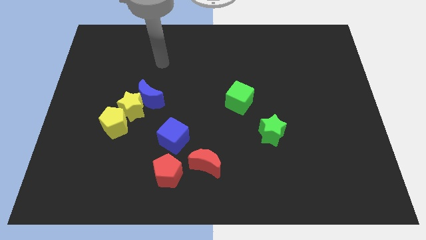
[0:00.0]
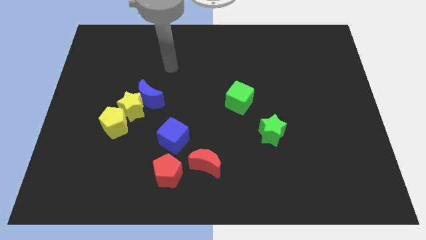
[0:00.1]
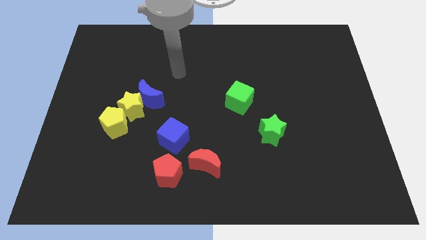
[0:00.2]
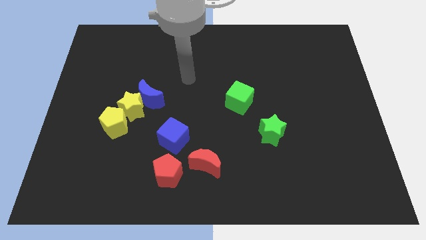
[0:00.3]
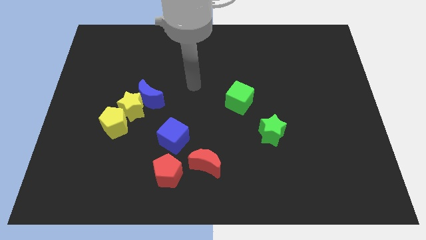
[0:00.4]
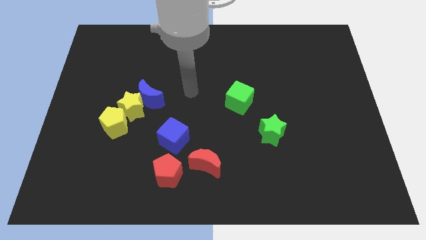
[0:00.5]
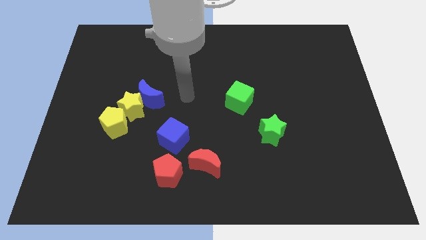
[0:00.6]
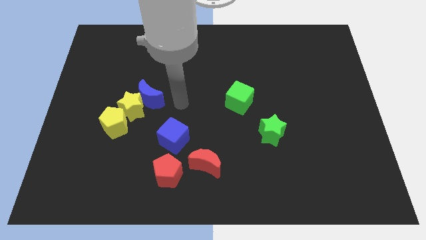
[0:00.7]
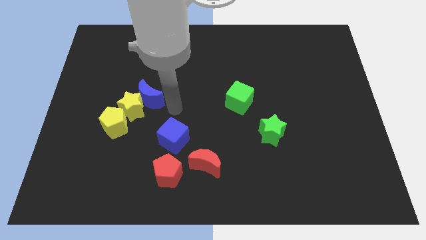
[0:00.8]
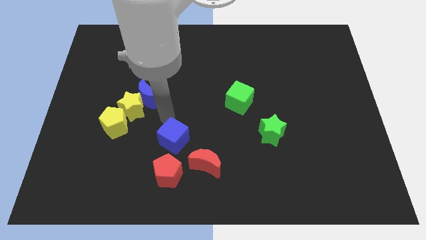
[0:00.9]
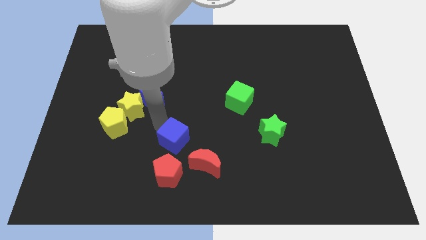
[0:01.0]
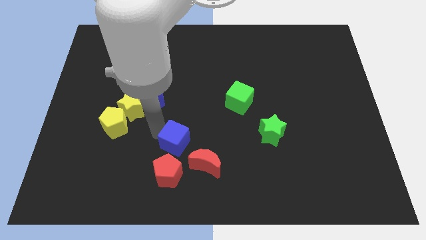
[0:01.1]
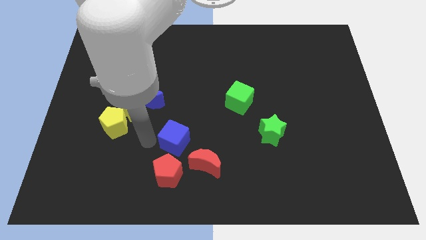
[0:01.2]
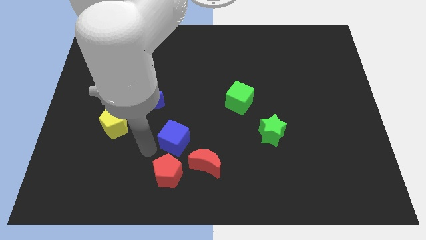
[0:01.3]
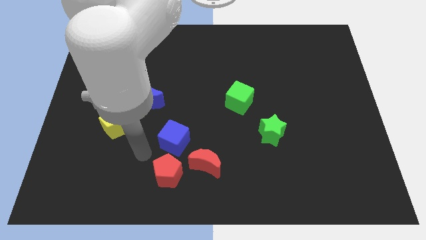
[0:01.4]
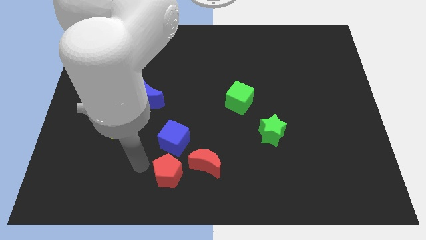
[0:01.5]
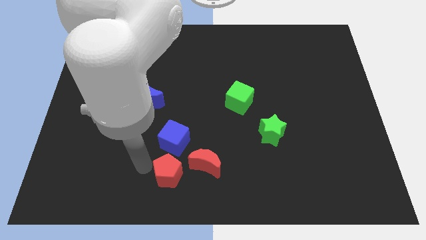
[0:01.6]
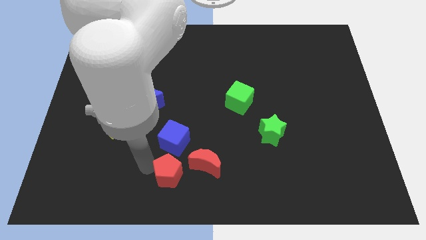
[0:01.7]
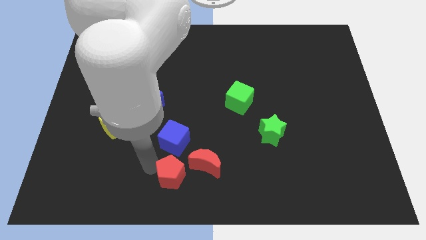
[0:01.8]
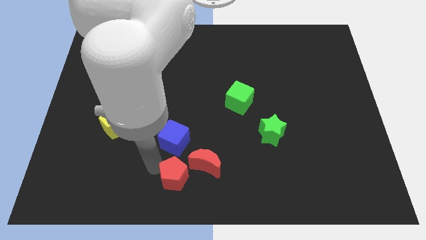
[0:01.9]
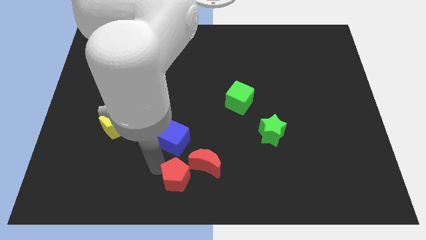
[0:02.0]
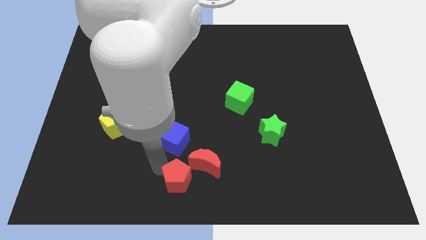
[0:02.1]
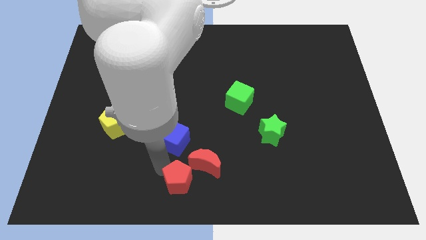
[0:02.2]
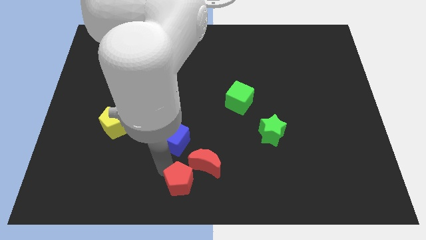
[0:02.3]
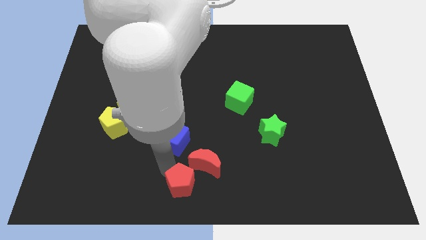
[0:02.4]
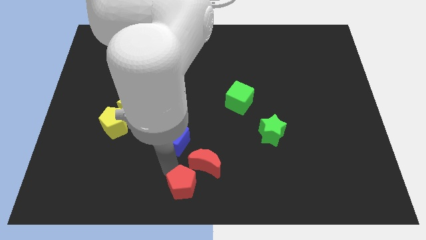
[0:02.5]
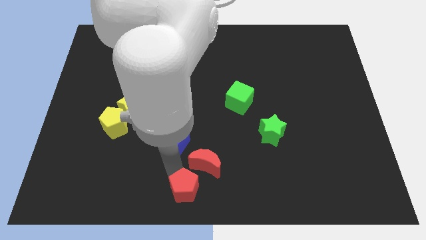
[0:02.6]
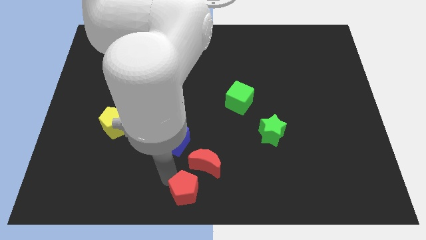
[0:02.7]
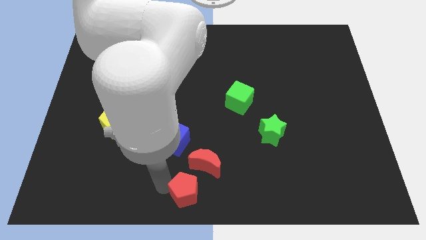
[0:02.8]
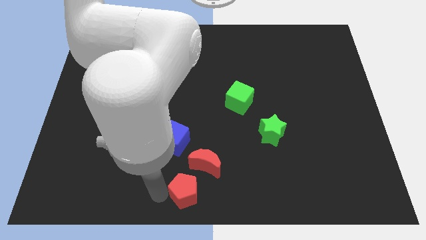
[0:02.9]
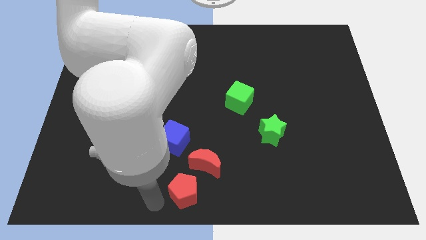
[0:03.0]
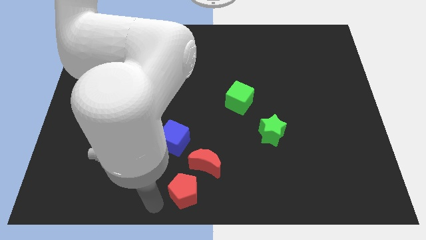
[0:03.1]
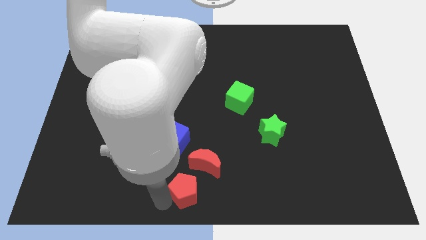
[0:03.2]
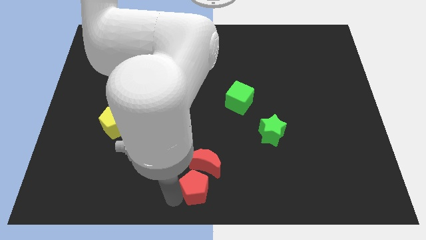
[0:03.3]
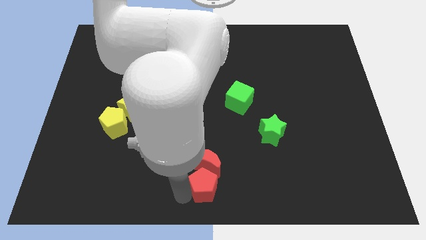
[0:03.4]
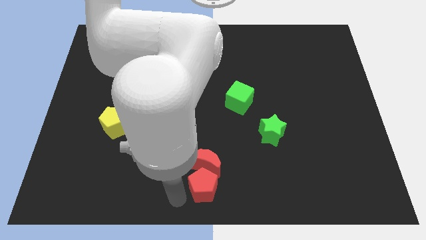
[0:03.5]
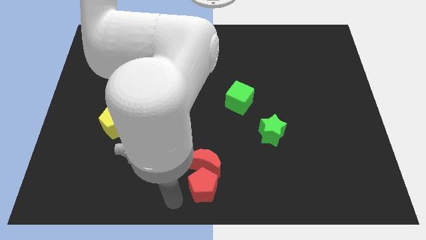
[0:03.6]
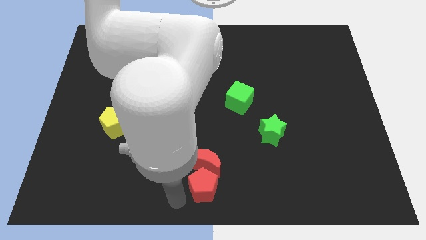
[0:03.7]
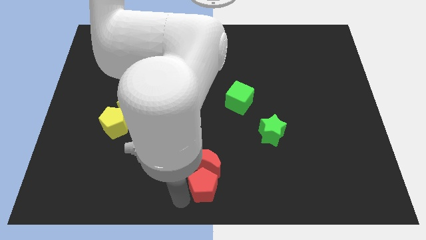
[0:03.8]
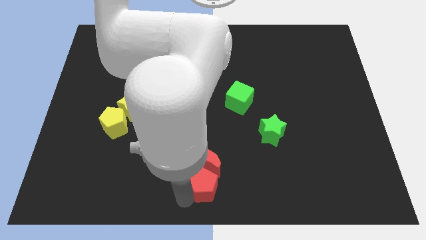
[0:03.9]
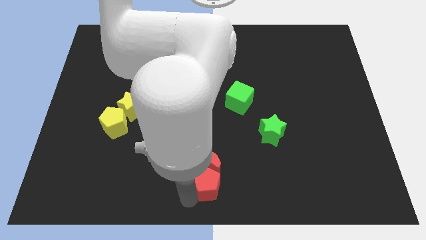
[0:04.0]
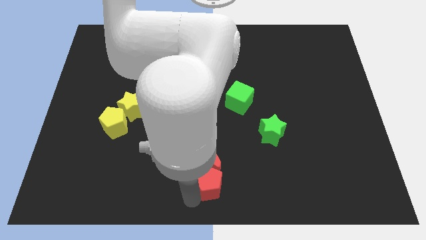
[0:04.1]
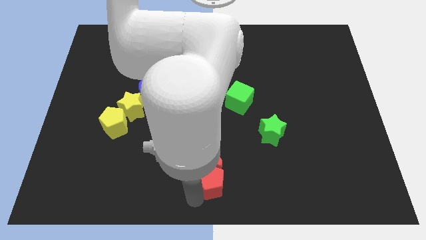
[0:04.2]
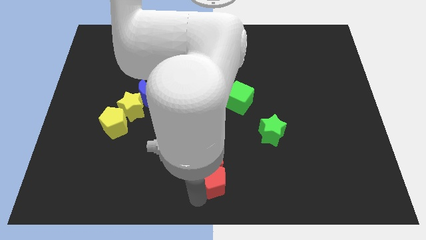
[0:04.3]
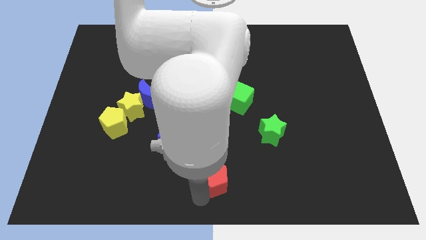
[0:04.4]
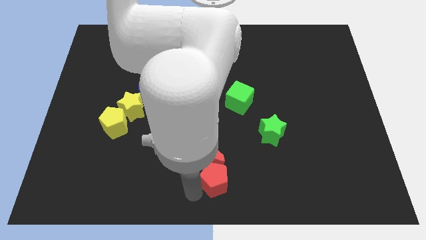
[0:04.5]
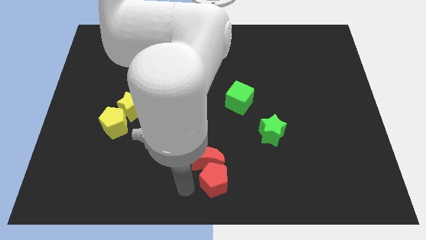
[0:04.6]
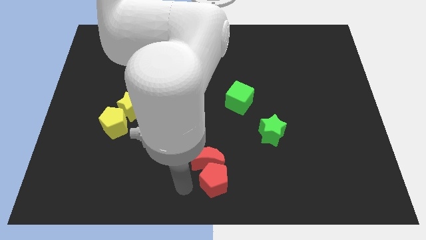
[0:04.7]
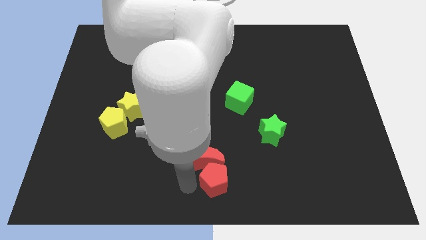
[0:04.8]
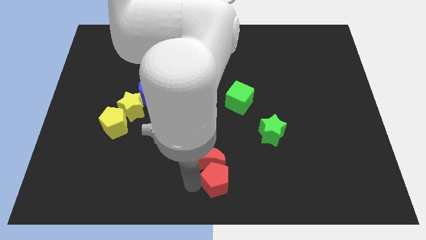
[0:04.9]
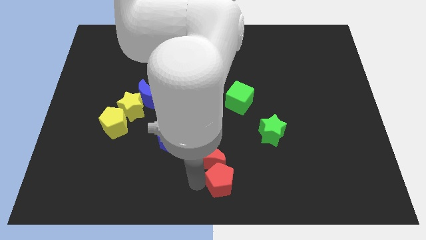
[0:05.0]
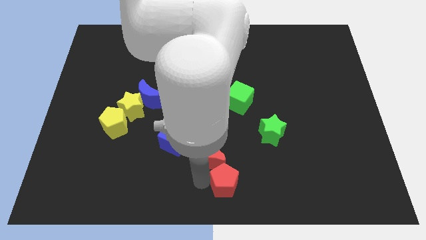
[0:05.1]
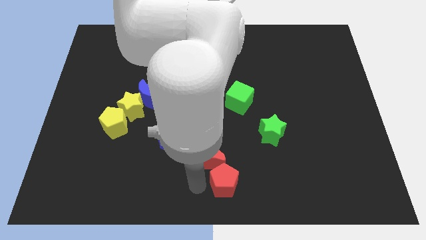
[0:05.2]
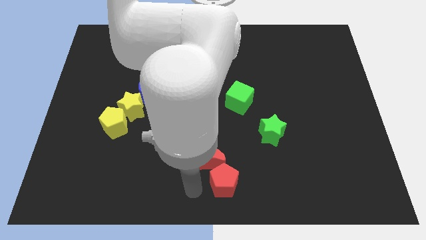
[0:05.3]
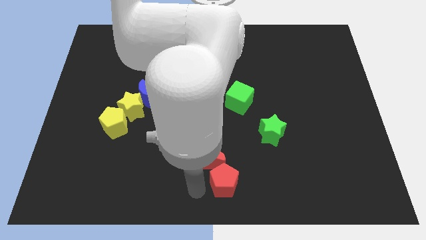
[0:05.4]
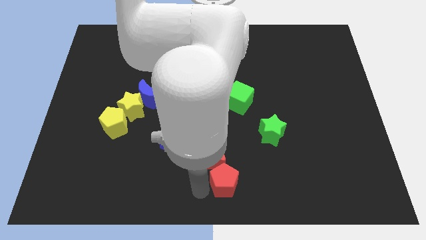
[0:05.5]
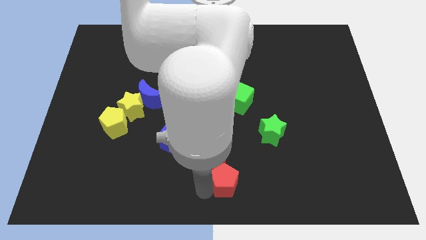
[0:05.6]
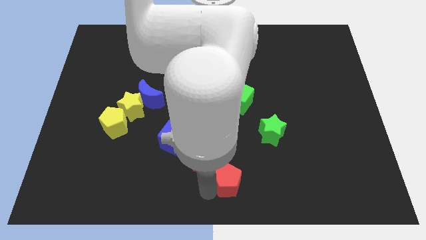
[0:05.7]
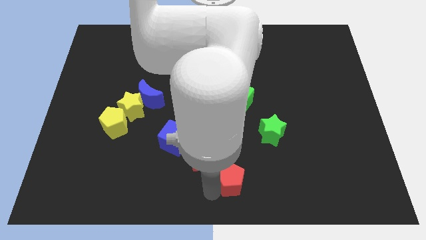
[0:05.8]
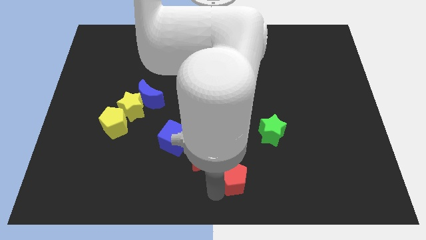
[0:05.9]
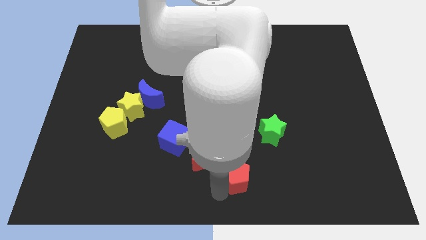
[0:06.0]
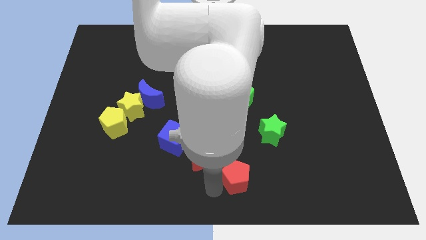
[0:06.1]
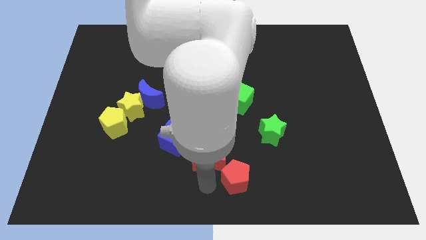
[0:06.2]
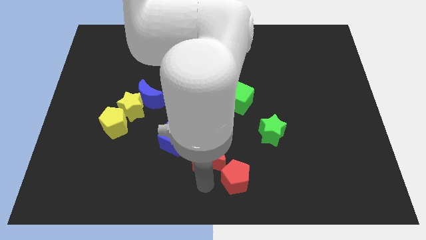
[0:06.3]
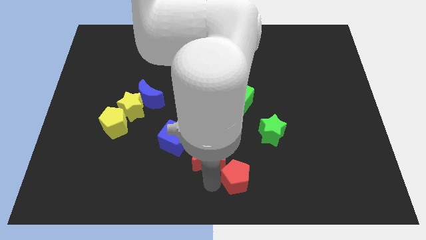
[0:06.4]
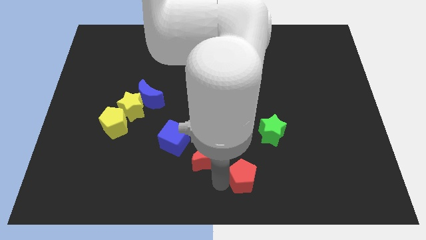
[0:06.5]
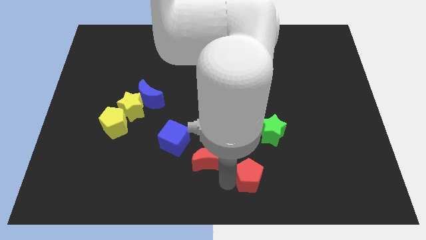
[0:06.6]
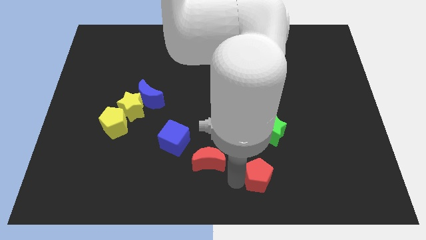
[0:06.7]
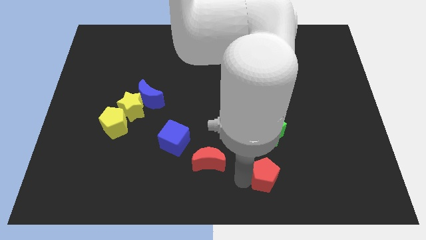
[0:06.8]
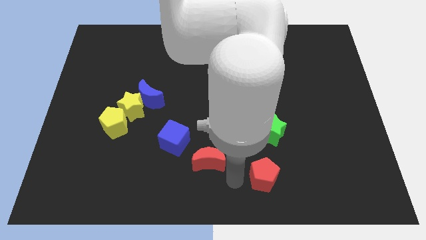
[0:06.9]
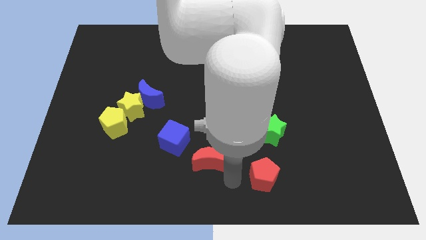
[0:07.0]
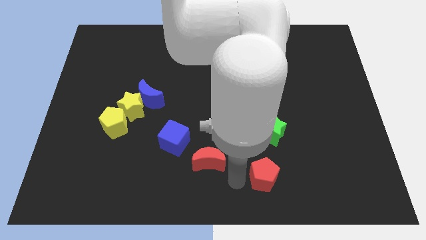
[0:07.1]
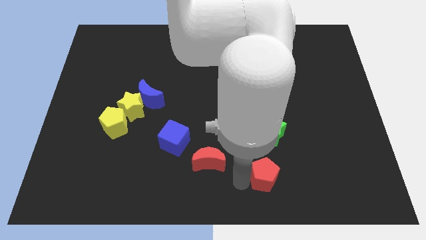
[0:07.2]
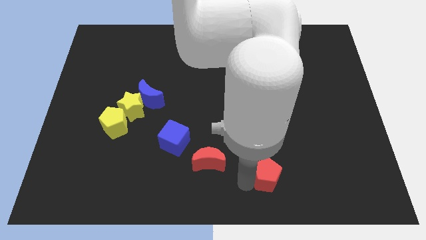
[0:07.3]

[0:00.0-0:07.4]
push the red pentagon right

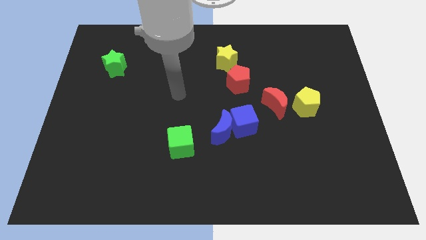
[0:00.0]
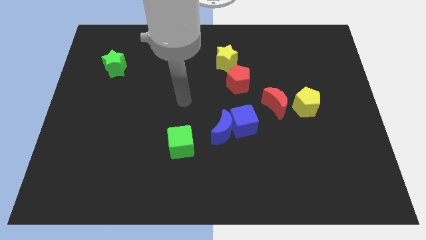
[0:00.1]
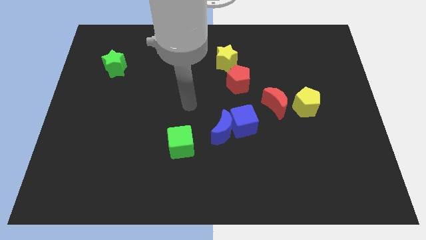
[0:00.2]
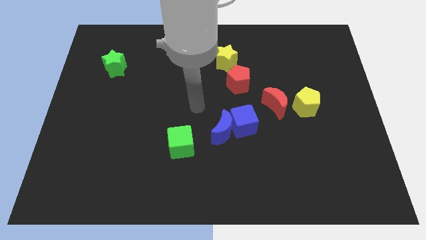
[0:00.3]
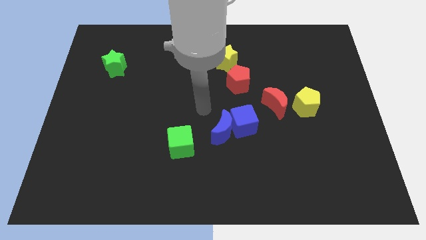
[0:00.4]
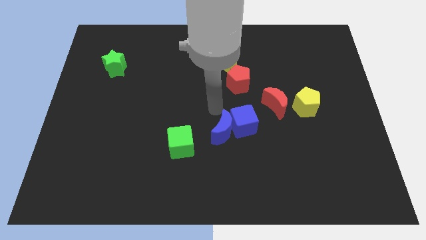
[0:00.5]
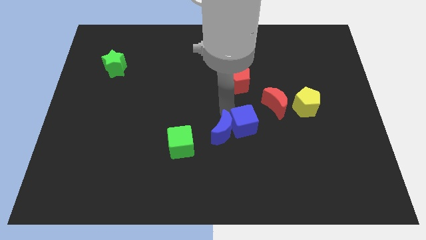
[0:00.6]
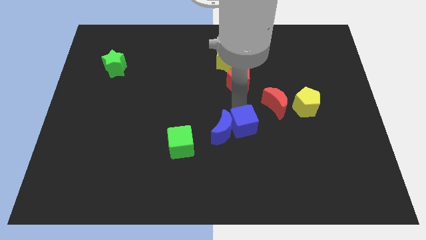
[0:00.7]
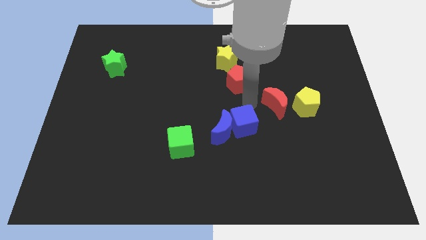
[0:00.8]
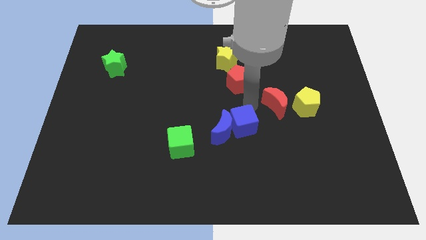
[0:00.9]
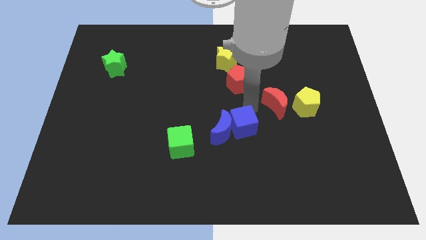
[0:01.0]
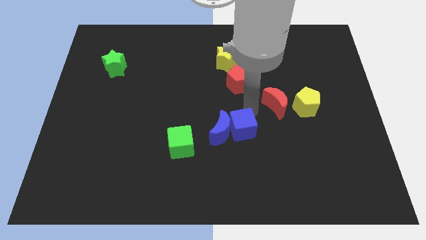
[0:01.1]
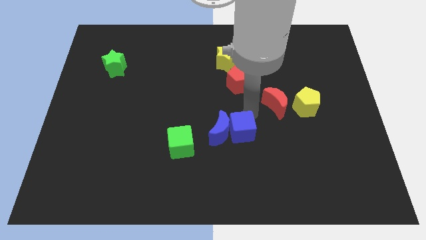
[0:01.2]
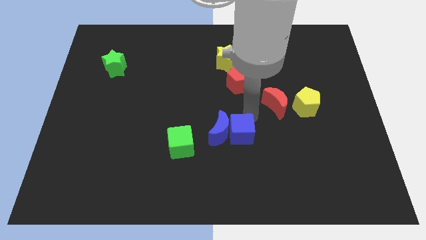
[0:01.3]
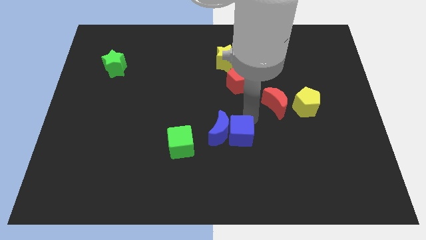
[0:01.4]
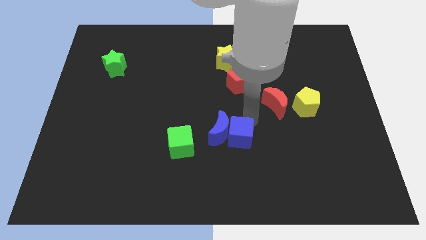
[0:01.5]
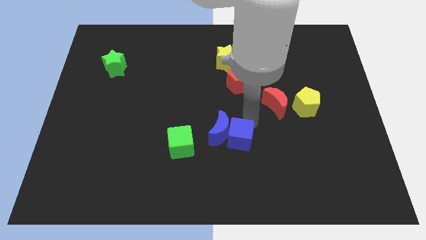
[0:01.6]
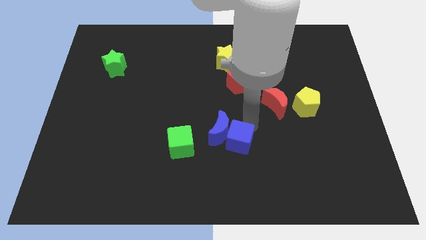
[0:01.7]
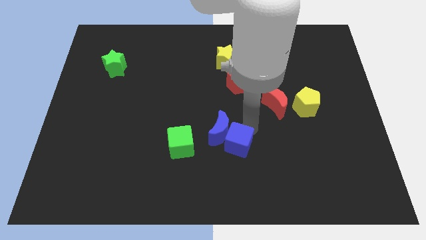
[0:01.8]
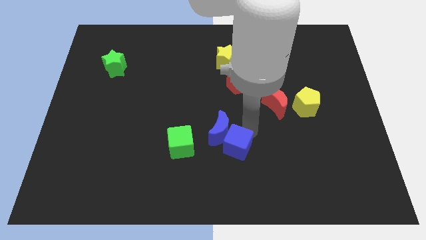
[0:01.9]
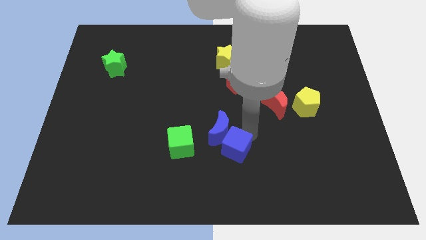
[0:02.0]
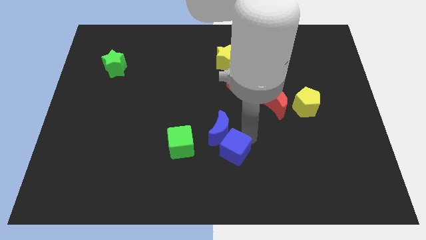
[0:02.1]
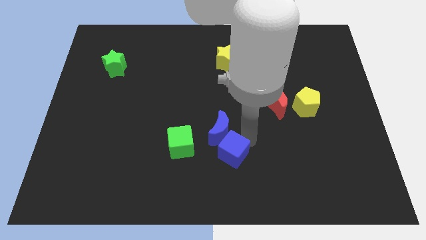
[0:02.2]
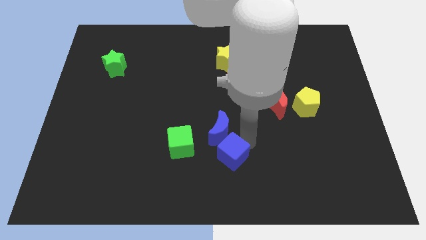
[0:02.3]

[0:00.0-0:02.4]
push the blue cube down and to the left somewhat
